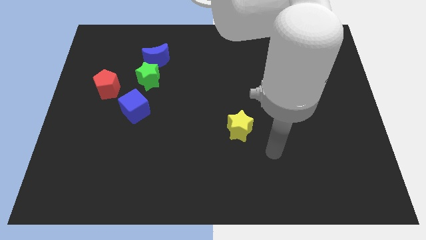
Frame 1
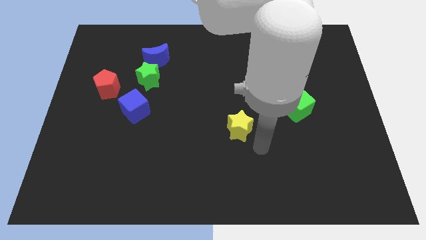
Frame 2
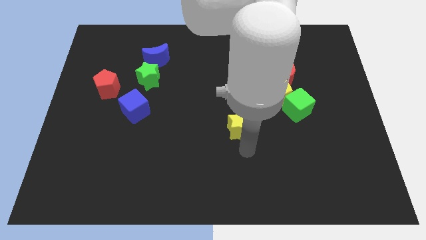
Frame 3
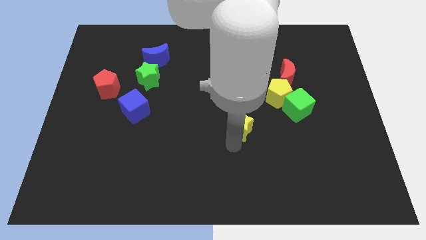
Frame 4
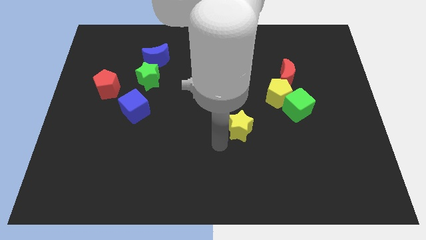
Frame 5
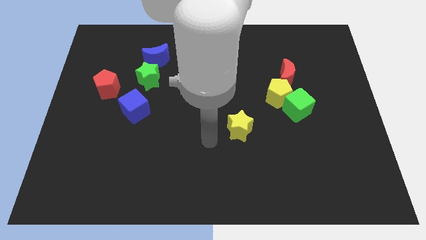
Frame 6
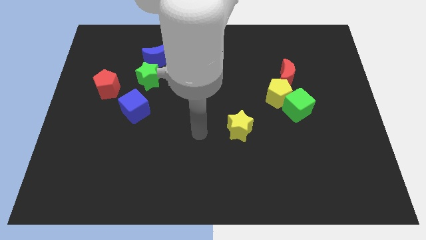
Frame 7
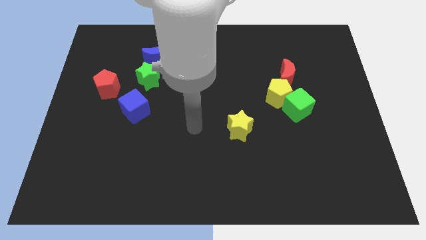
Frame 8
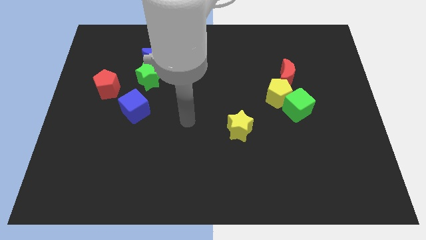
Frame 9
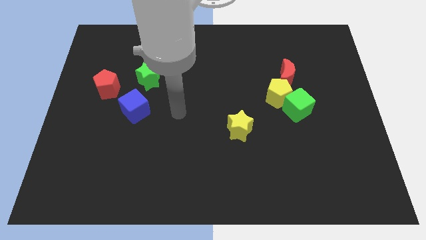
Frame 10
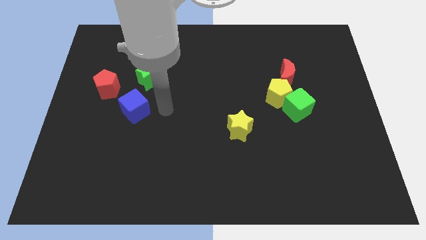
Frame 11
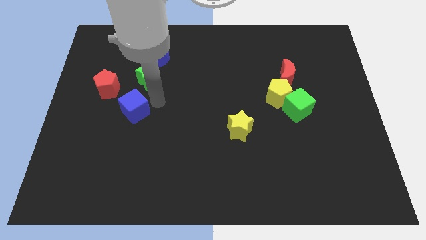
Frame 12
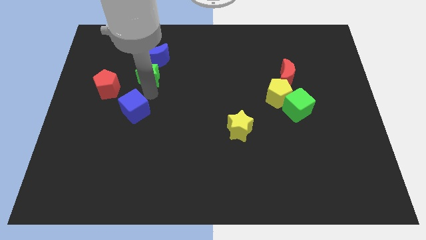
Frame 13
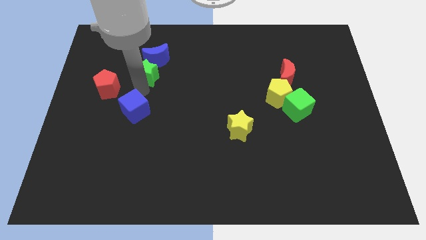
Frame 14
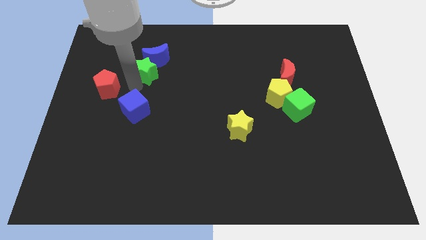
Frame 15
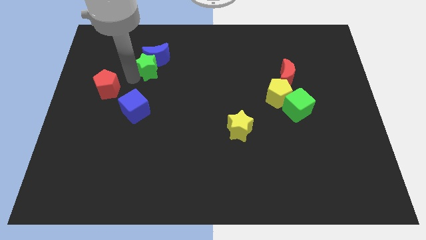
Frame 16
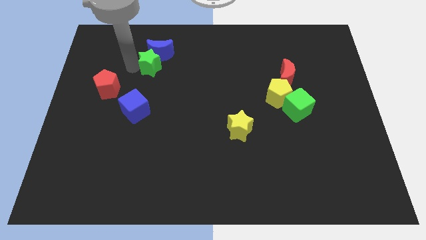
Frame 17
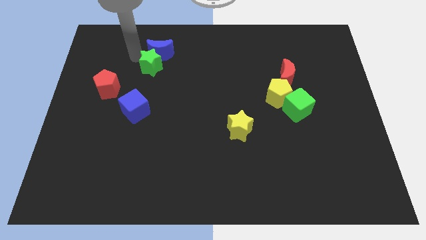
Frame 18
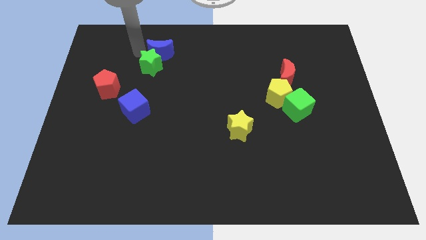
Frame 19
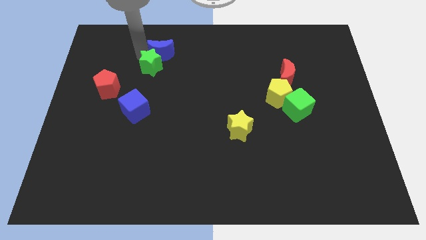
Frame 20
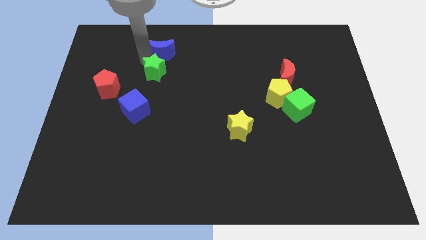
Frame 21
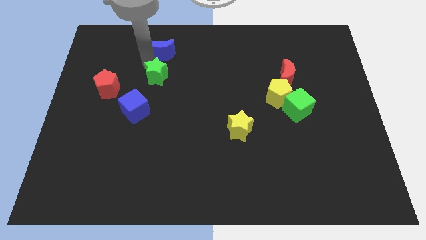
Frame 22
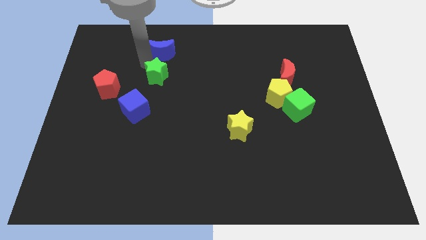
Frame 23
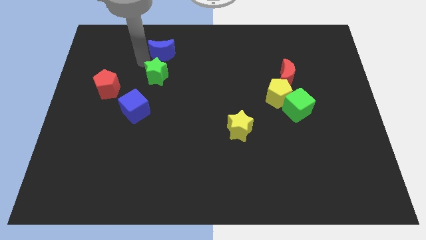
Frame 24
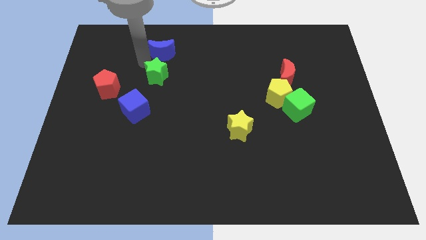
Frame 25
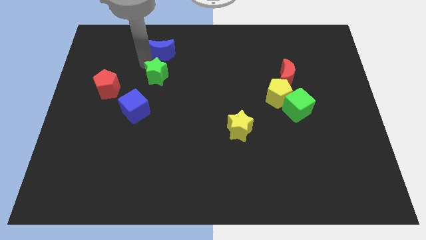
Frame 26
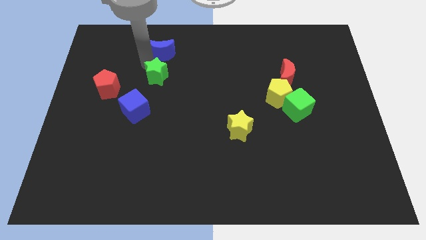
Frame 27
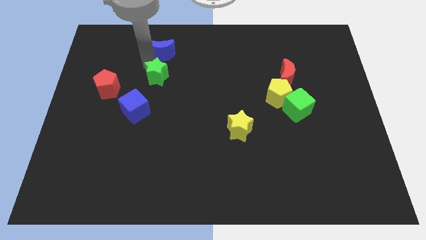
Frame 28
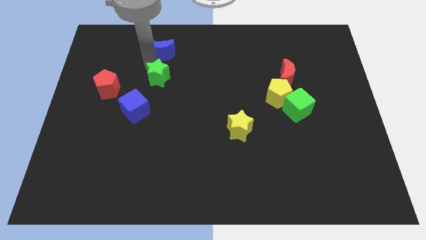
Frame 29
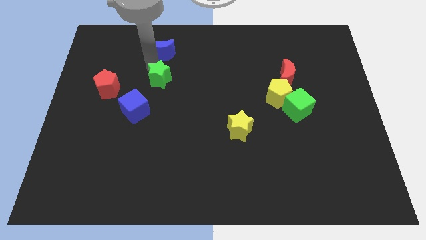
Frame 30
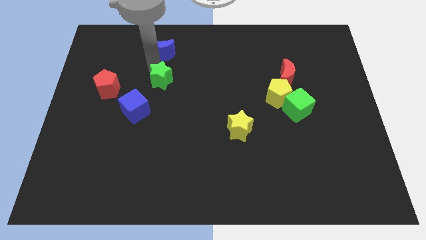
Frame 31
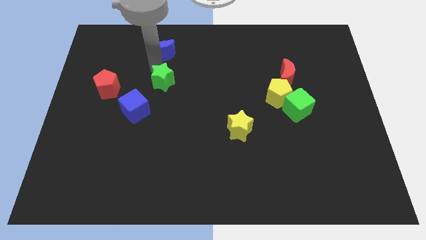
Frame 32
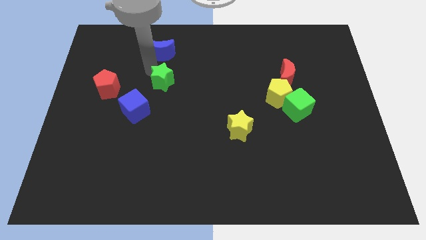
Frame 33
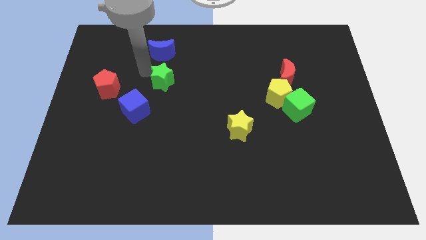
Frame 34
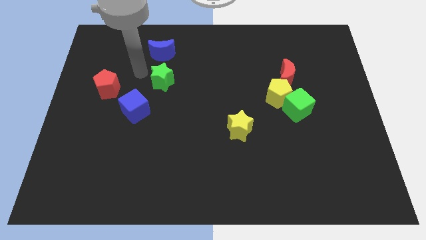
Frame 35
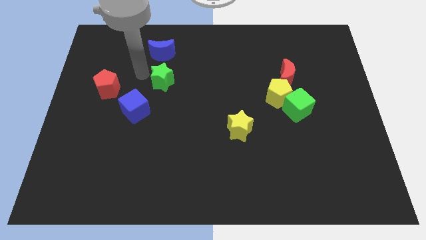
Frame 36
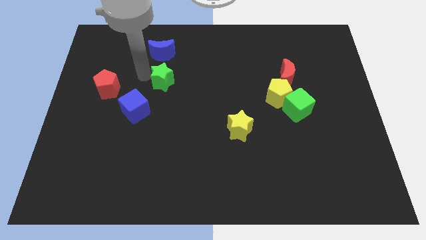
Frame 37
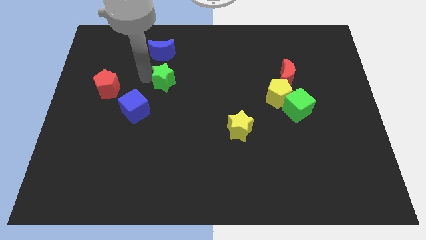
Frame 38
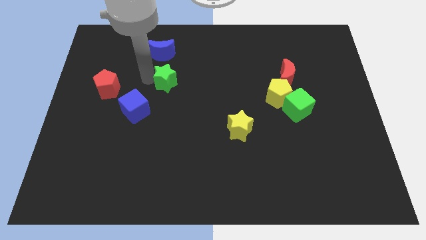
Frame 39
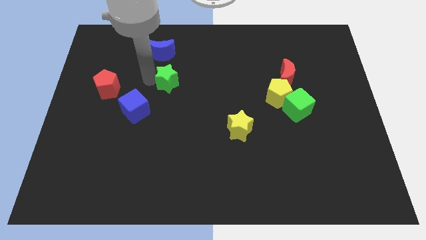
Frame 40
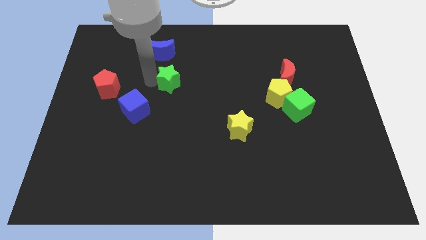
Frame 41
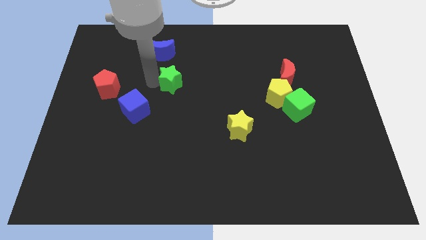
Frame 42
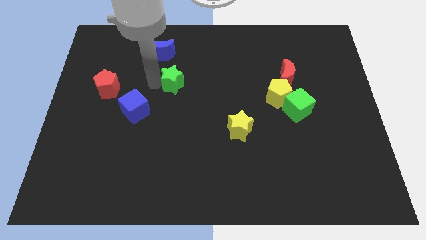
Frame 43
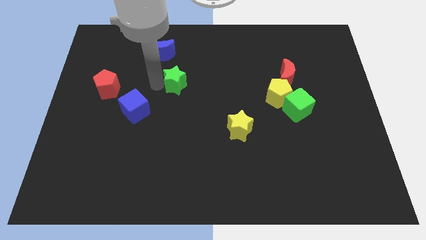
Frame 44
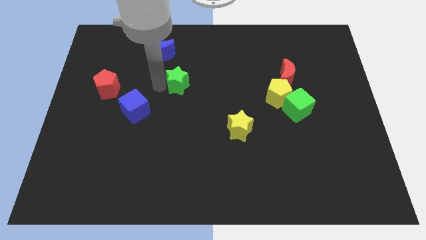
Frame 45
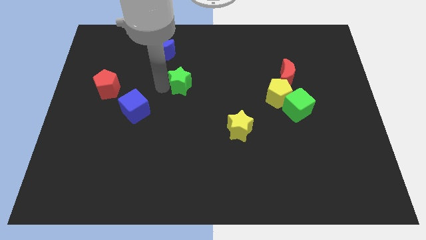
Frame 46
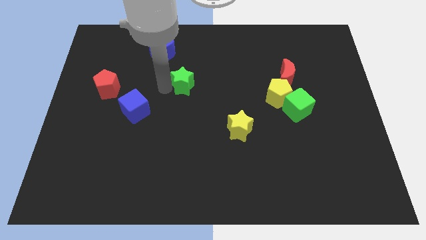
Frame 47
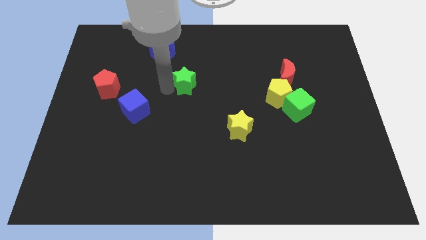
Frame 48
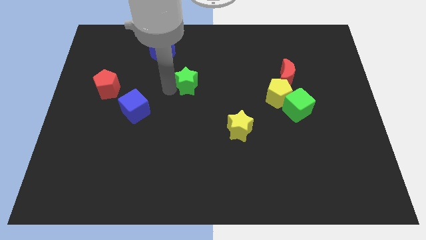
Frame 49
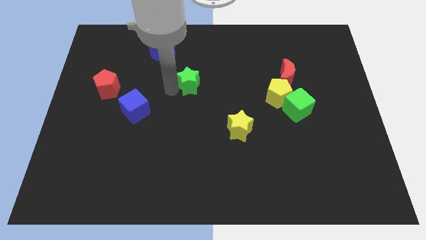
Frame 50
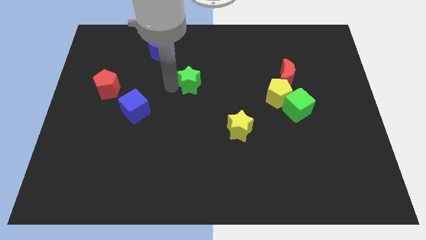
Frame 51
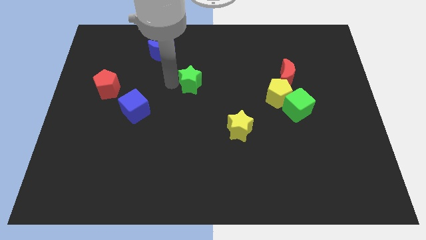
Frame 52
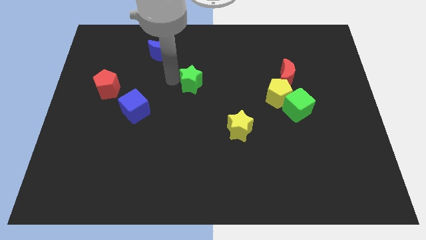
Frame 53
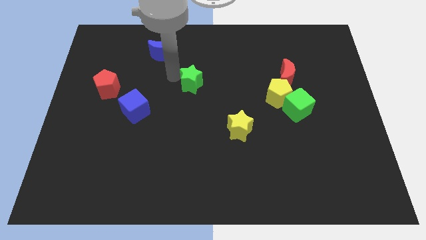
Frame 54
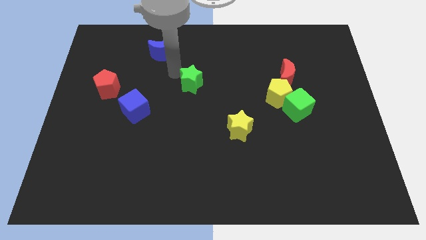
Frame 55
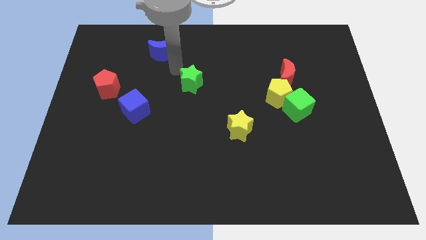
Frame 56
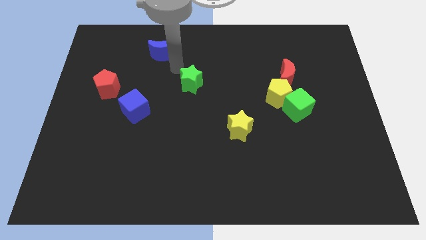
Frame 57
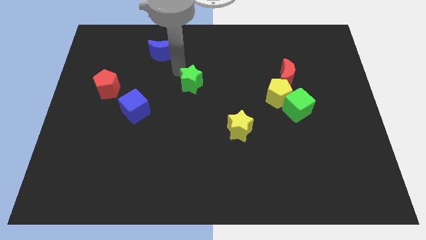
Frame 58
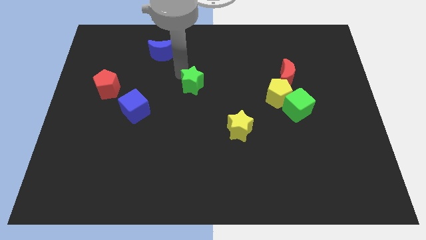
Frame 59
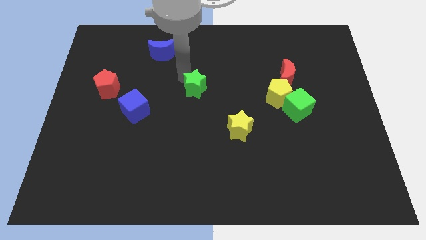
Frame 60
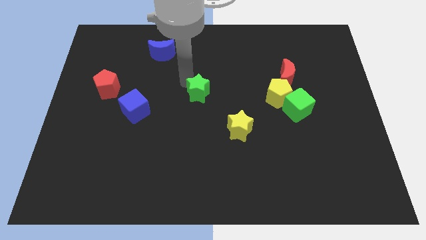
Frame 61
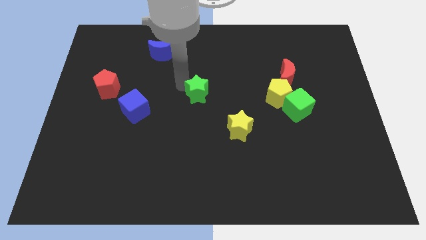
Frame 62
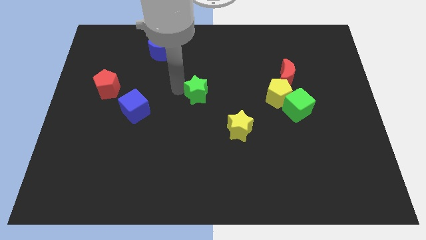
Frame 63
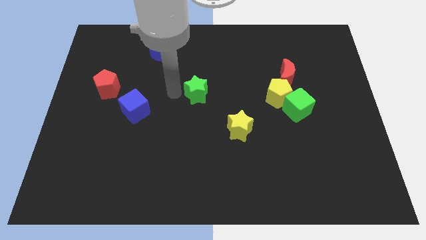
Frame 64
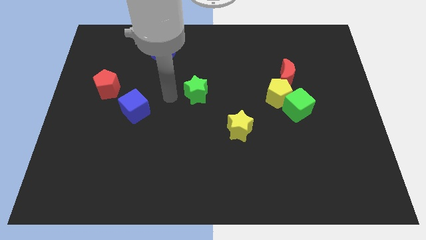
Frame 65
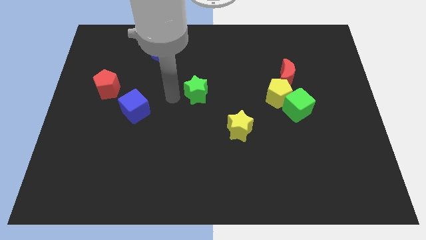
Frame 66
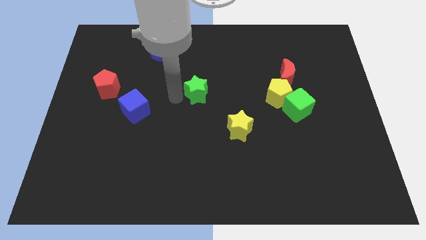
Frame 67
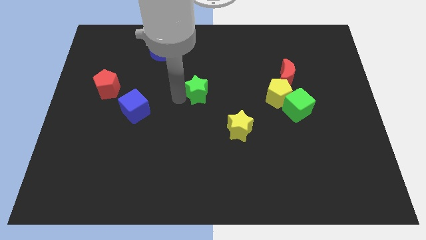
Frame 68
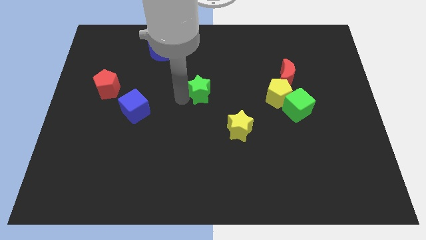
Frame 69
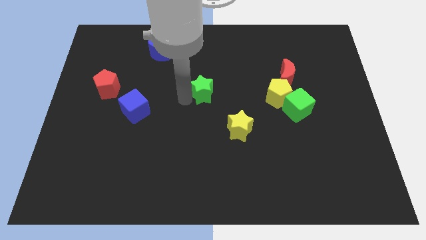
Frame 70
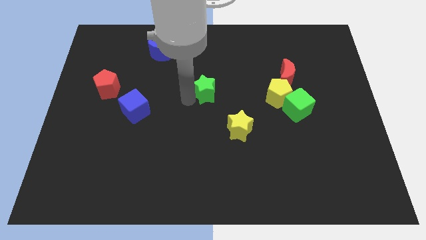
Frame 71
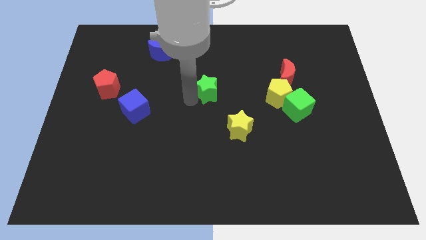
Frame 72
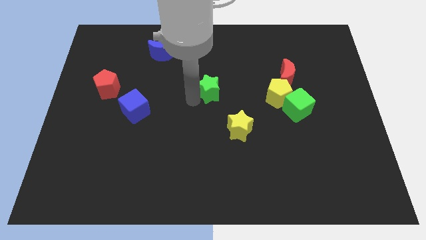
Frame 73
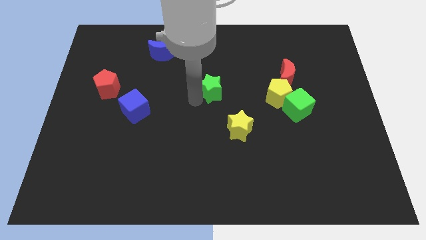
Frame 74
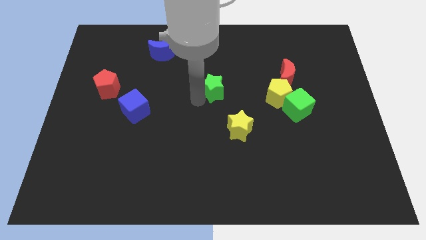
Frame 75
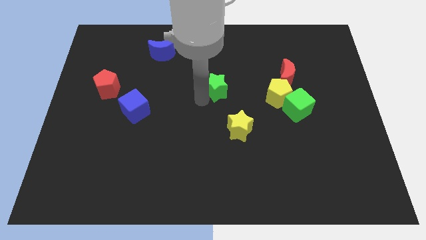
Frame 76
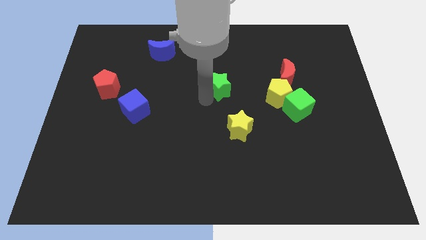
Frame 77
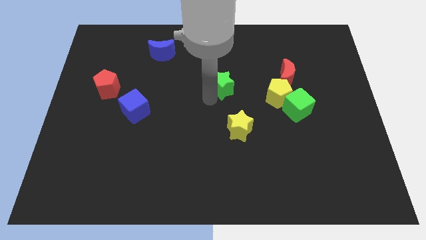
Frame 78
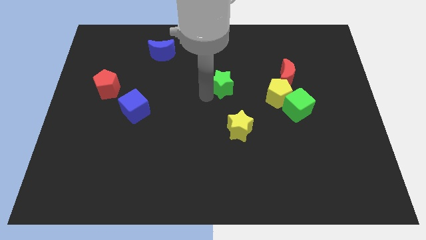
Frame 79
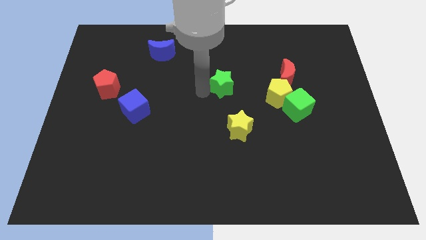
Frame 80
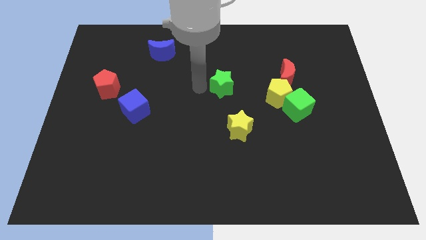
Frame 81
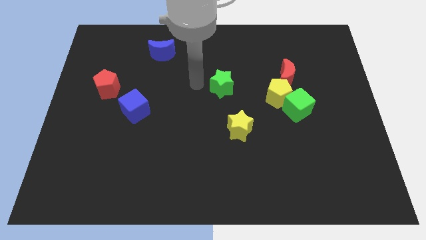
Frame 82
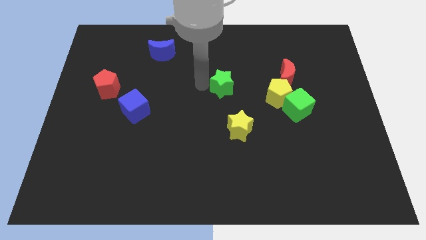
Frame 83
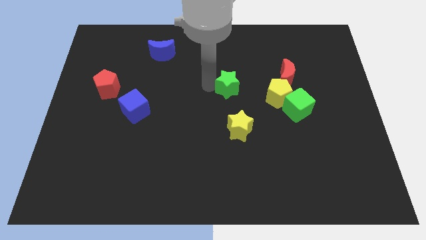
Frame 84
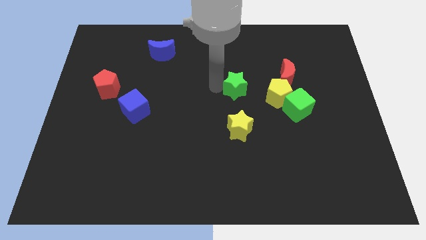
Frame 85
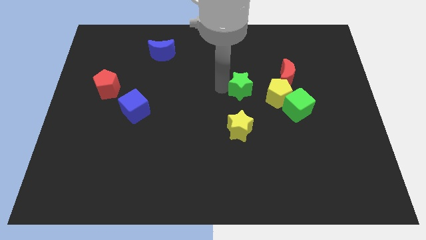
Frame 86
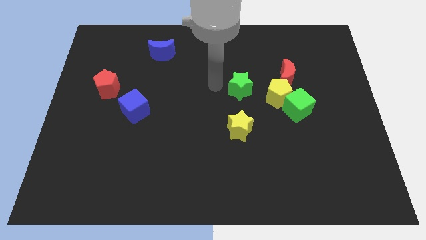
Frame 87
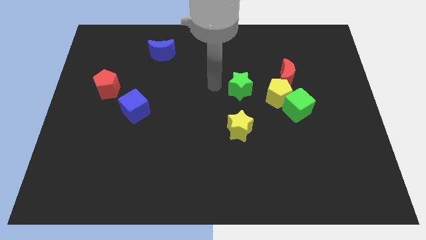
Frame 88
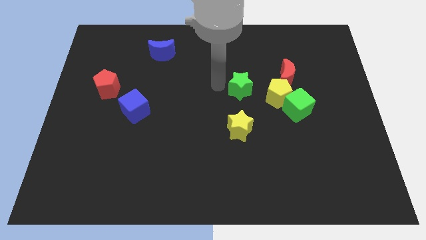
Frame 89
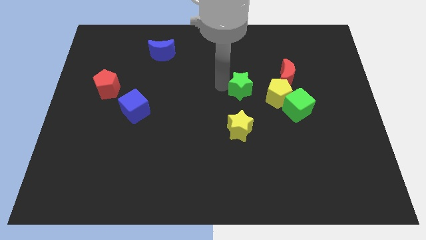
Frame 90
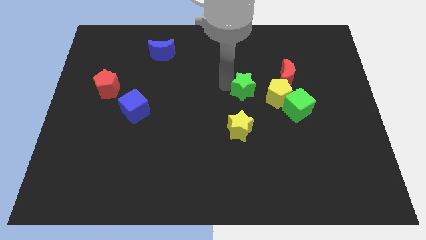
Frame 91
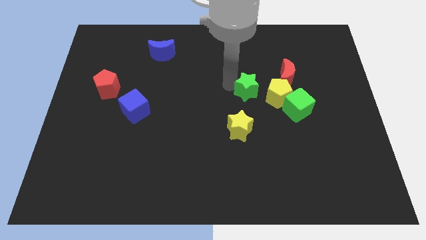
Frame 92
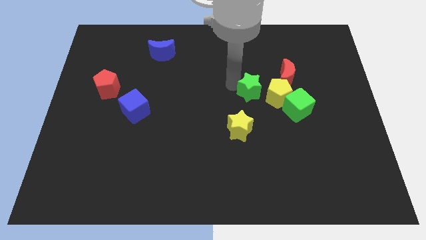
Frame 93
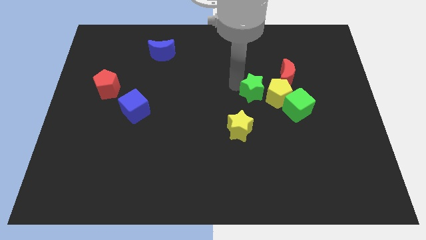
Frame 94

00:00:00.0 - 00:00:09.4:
move the green star close to the yellow pentagon
